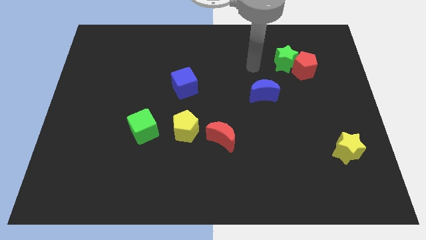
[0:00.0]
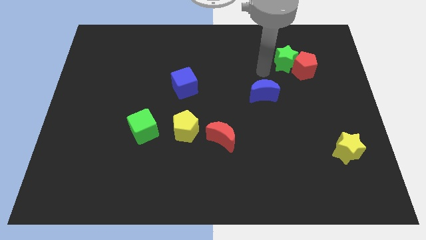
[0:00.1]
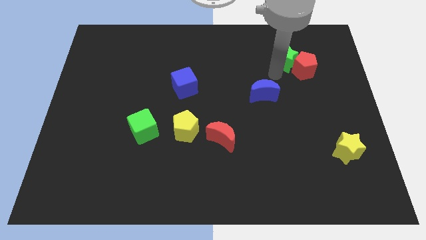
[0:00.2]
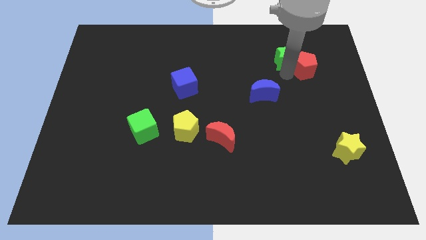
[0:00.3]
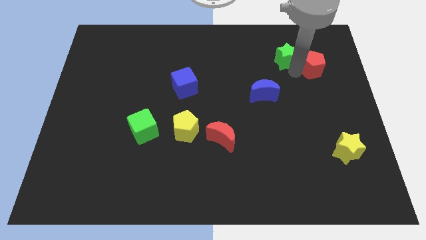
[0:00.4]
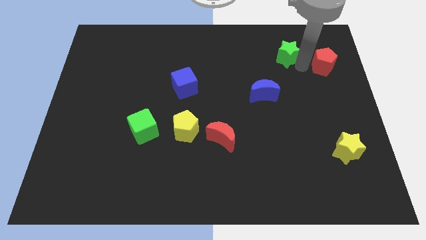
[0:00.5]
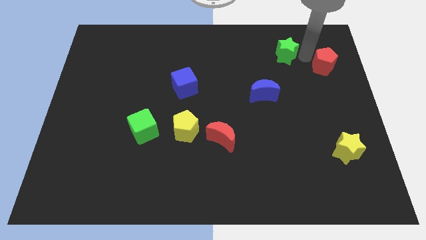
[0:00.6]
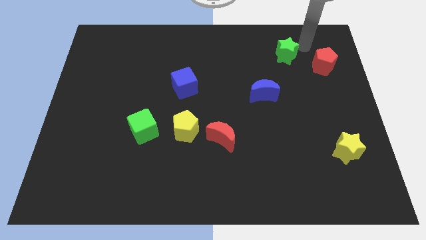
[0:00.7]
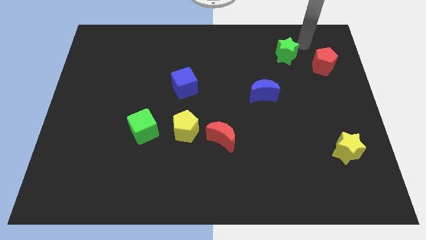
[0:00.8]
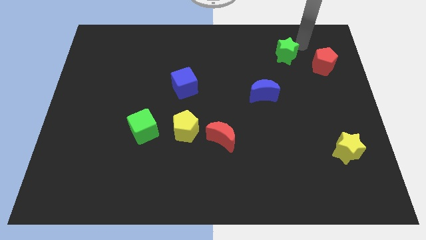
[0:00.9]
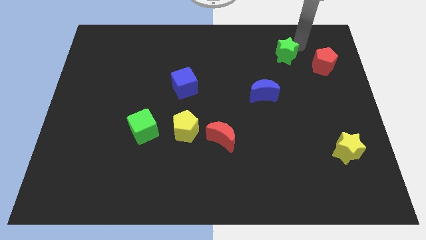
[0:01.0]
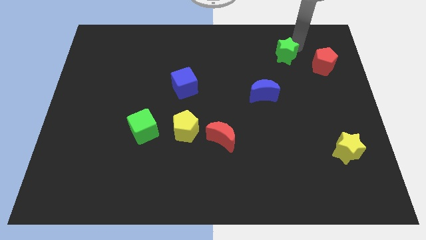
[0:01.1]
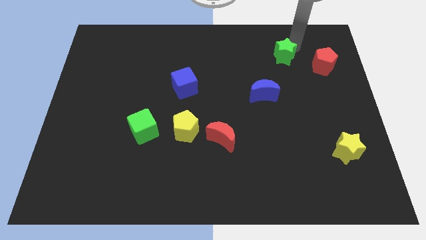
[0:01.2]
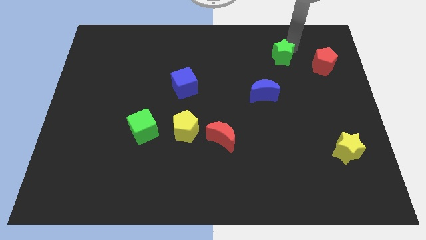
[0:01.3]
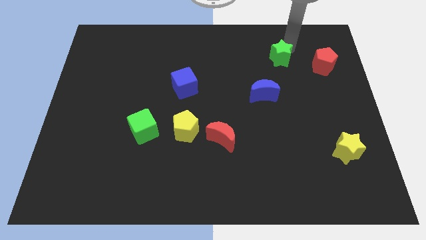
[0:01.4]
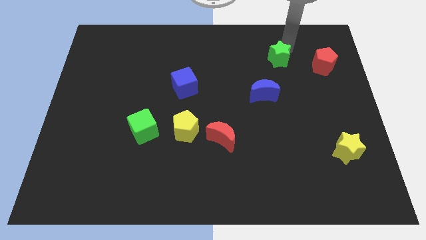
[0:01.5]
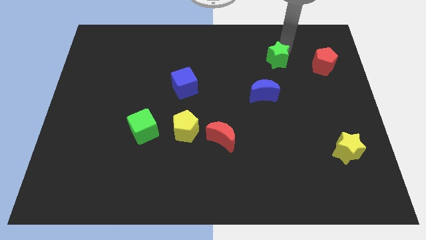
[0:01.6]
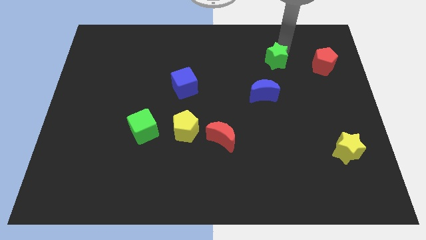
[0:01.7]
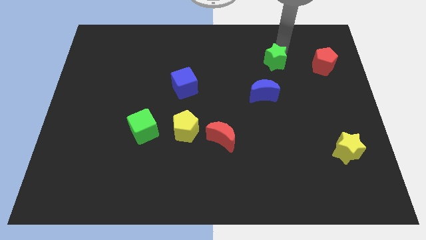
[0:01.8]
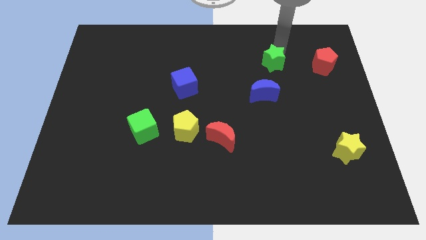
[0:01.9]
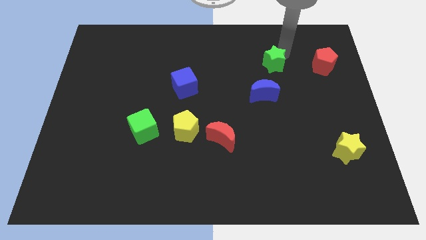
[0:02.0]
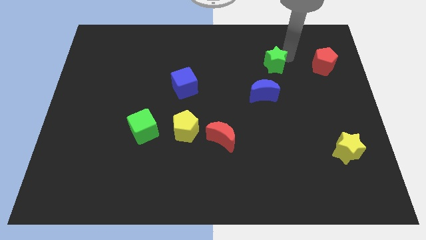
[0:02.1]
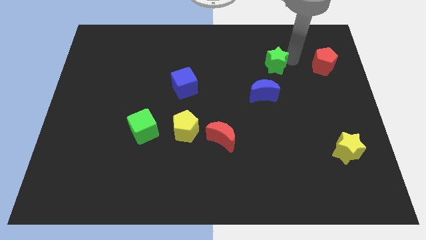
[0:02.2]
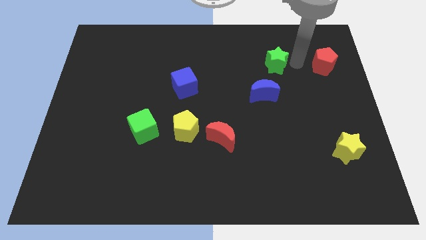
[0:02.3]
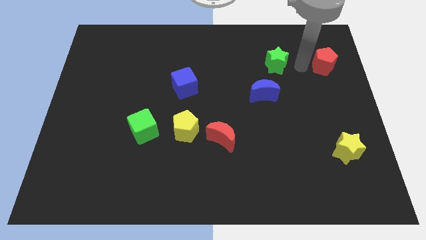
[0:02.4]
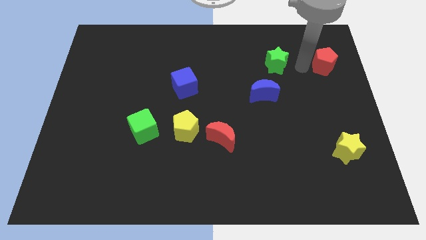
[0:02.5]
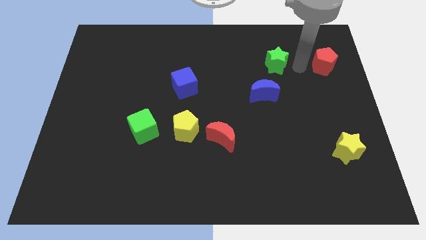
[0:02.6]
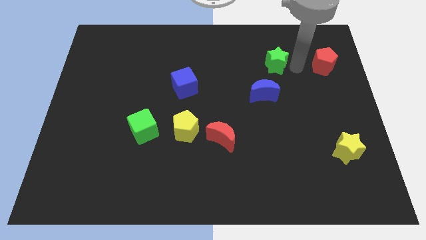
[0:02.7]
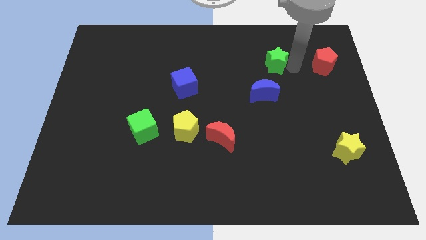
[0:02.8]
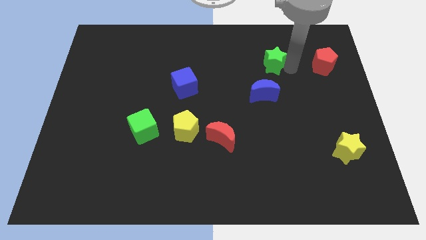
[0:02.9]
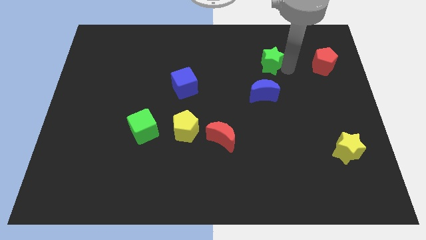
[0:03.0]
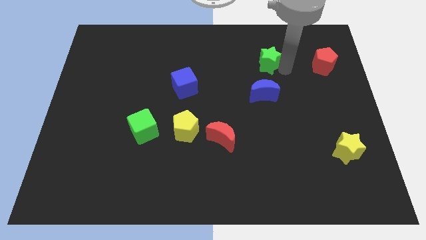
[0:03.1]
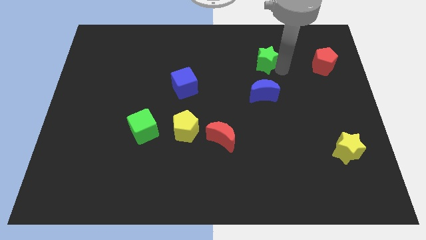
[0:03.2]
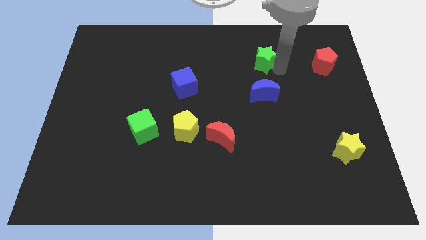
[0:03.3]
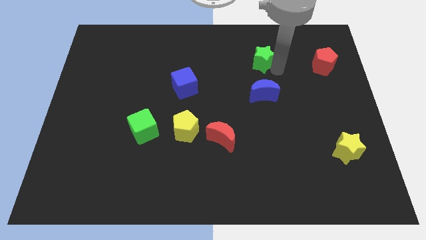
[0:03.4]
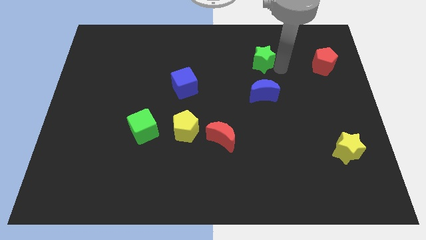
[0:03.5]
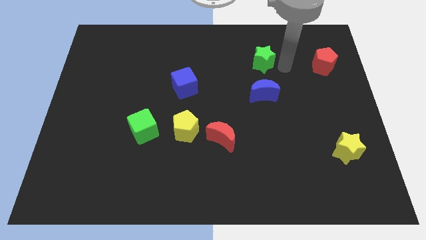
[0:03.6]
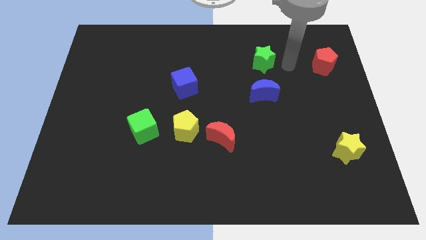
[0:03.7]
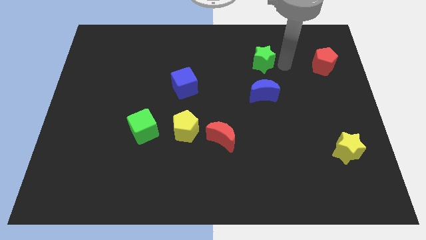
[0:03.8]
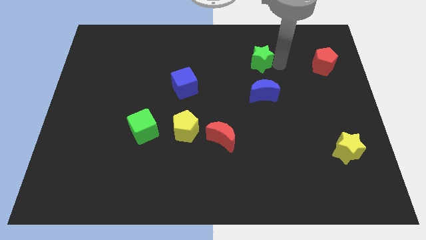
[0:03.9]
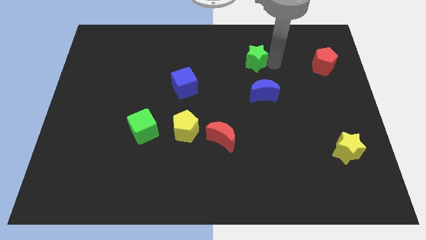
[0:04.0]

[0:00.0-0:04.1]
slightly push the green star to the left

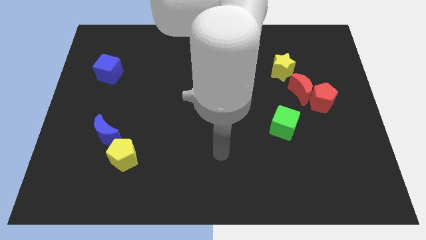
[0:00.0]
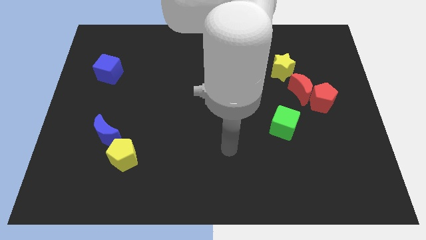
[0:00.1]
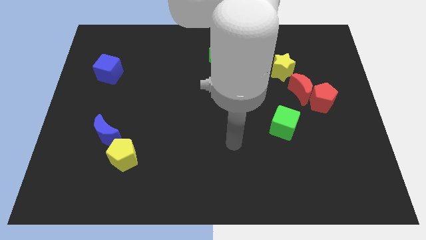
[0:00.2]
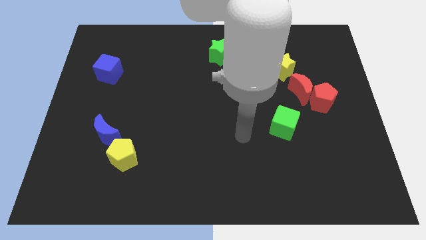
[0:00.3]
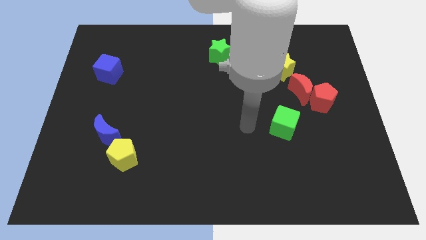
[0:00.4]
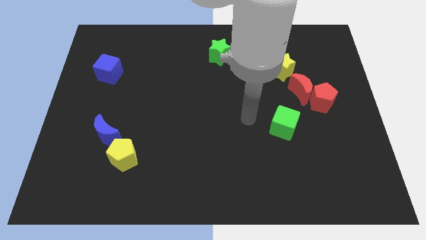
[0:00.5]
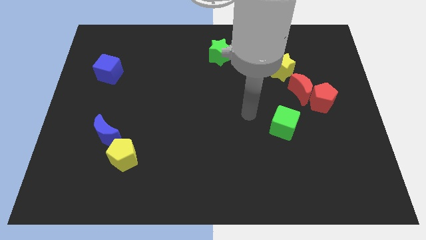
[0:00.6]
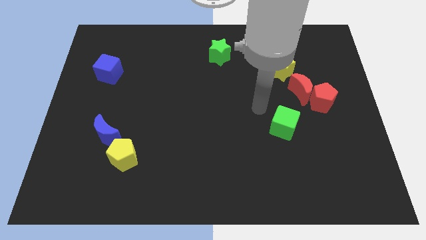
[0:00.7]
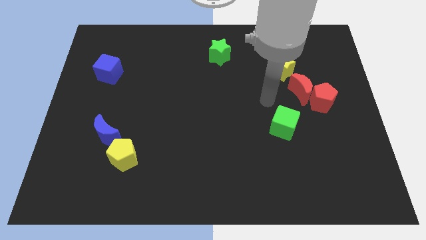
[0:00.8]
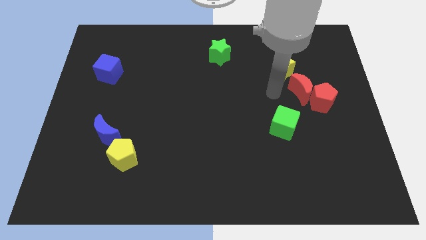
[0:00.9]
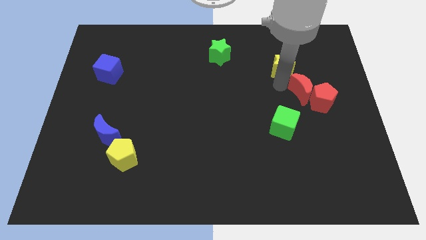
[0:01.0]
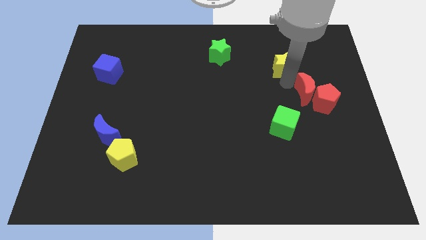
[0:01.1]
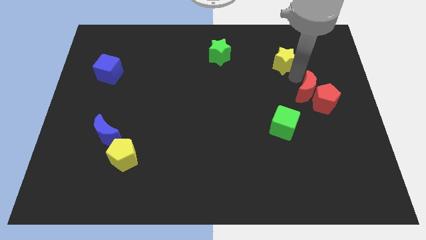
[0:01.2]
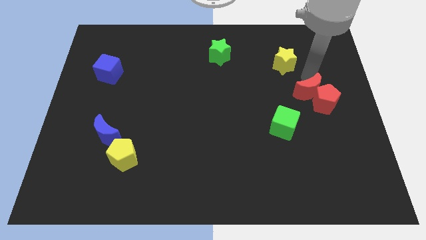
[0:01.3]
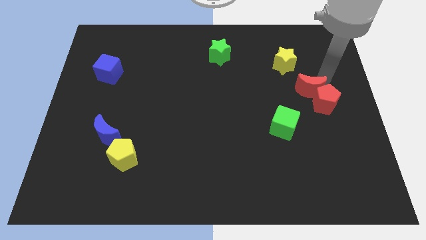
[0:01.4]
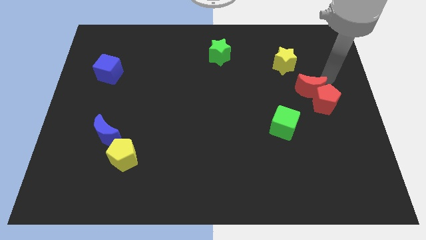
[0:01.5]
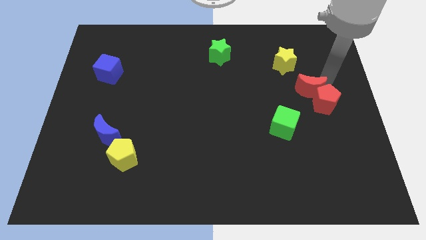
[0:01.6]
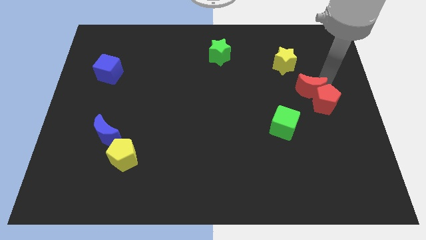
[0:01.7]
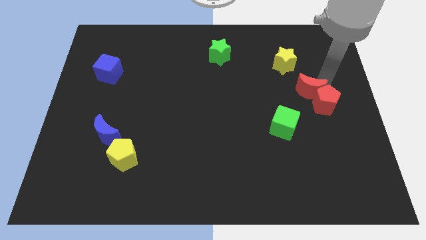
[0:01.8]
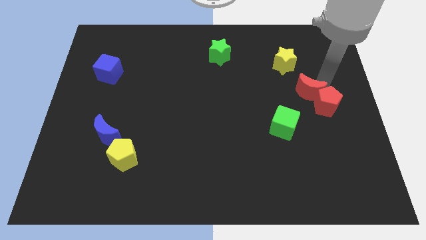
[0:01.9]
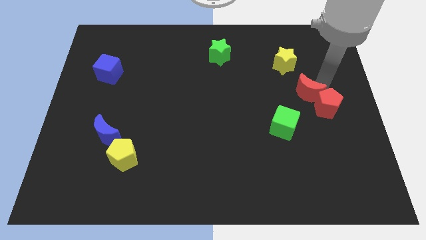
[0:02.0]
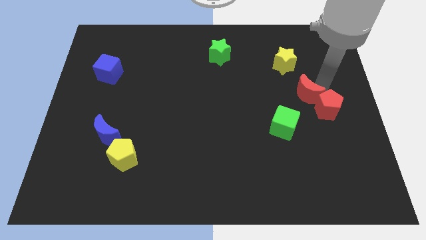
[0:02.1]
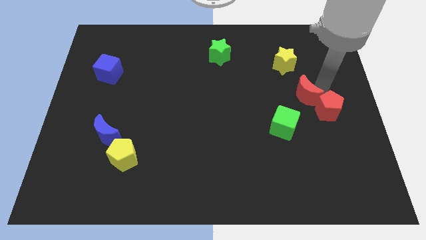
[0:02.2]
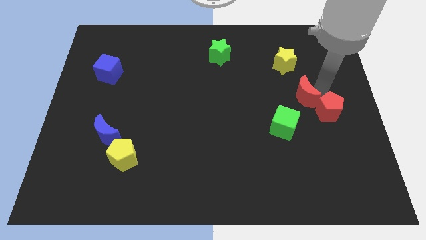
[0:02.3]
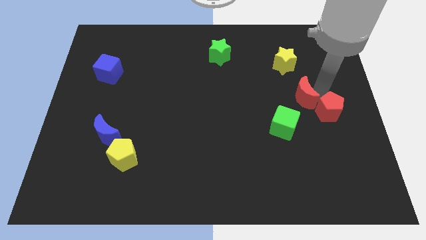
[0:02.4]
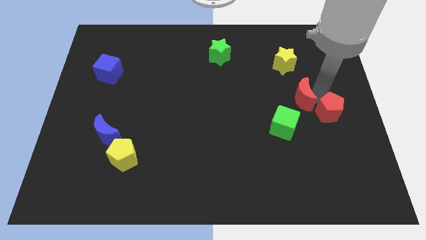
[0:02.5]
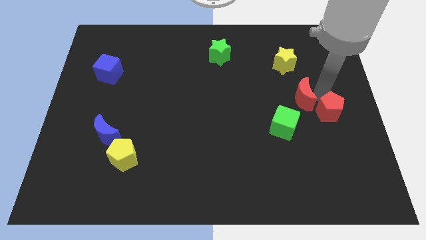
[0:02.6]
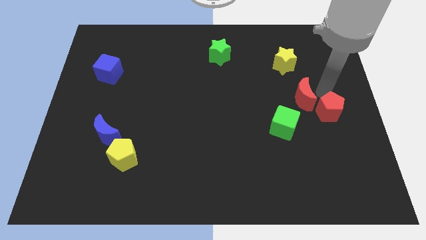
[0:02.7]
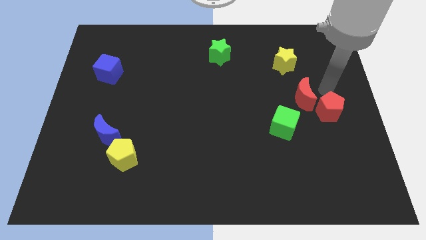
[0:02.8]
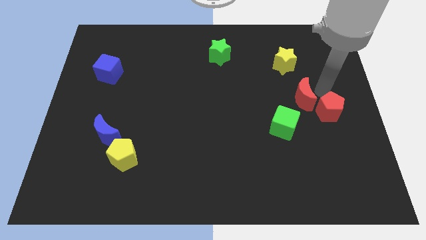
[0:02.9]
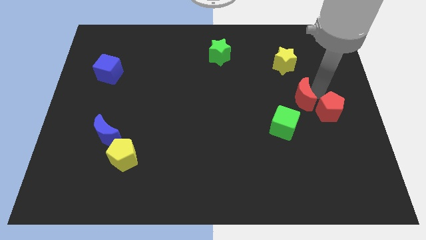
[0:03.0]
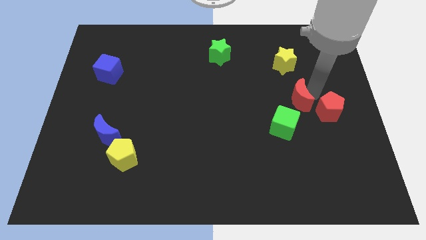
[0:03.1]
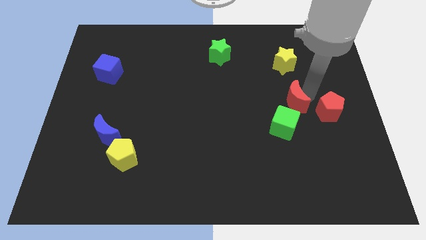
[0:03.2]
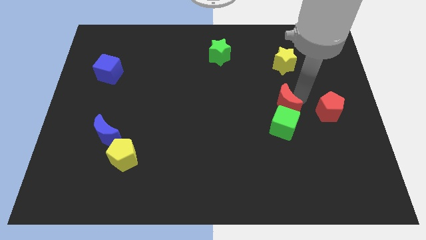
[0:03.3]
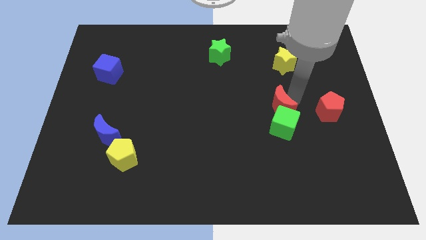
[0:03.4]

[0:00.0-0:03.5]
slightly slide the red moon downwards and left diagonally

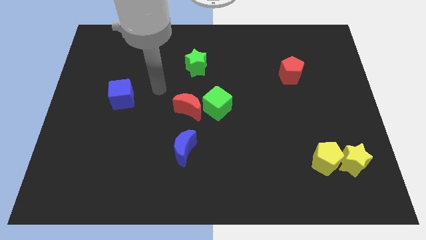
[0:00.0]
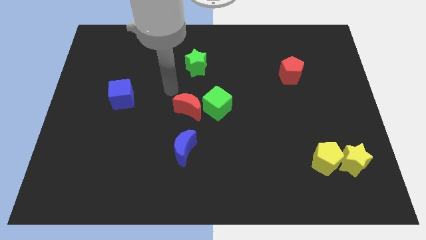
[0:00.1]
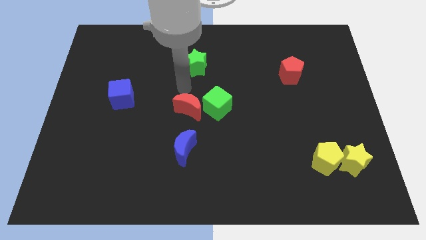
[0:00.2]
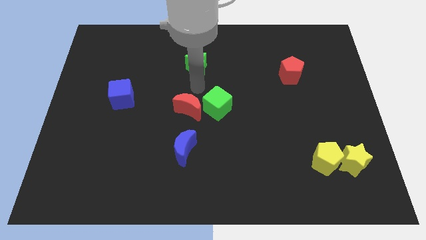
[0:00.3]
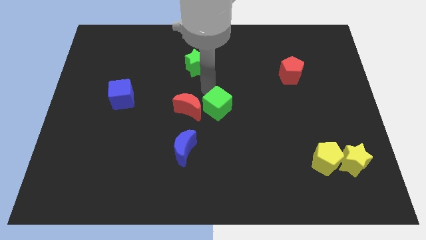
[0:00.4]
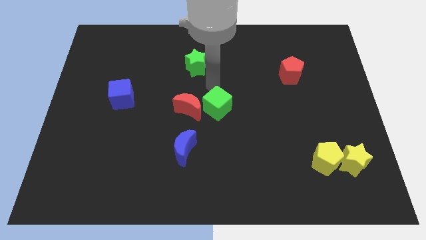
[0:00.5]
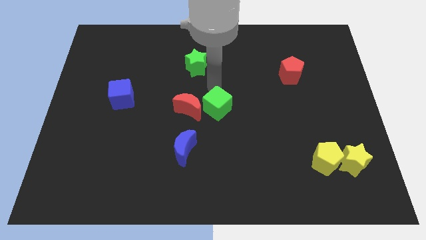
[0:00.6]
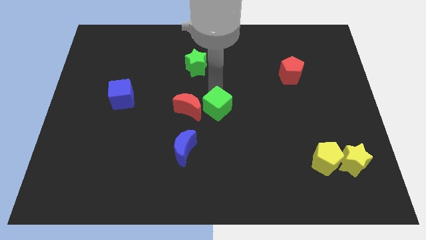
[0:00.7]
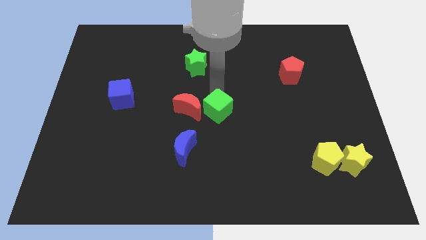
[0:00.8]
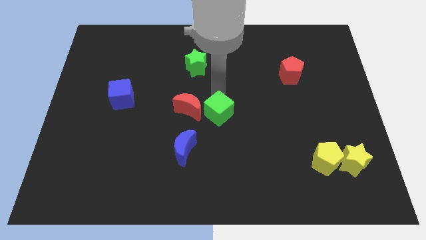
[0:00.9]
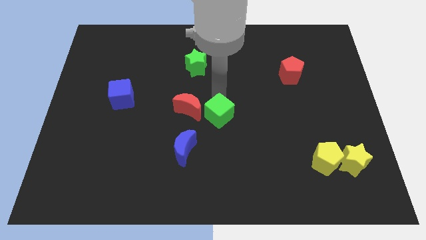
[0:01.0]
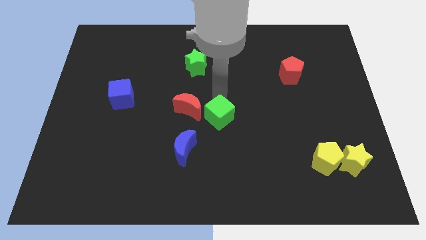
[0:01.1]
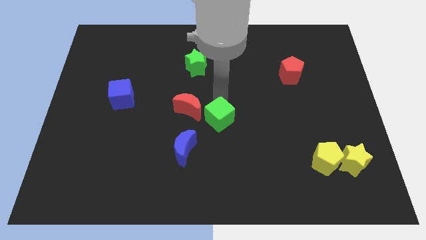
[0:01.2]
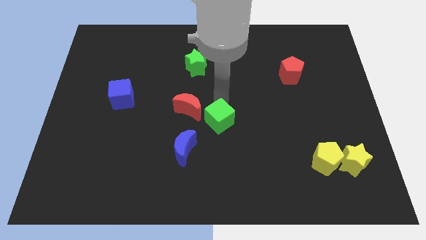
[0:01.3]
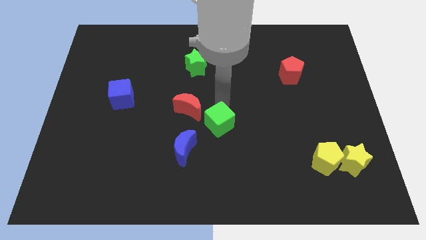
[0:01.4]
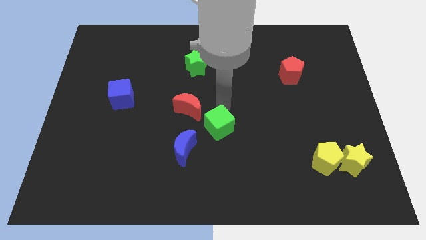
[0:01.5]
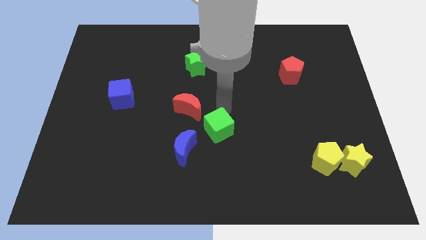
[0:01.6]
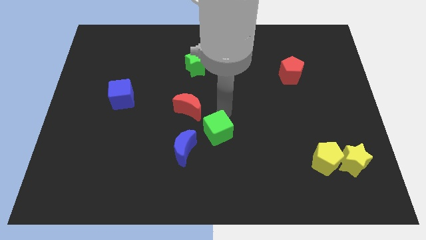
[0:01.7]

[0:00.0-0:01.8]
push the green cube a little bit down
